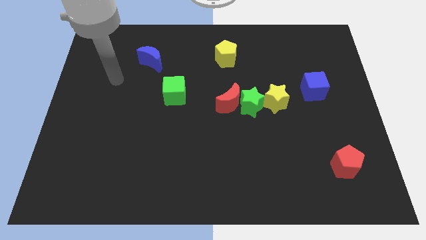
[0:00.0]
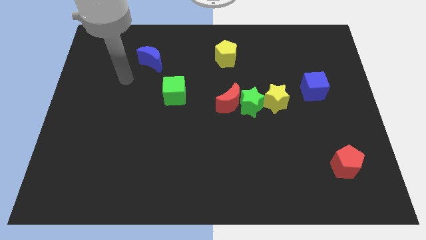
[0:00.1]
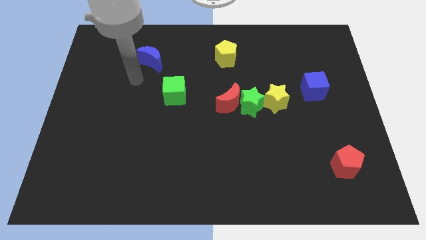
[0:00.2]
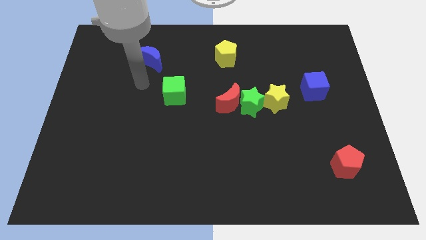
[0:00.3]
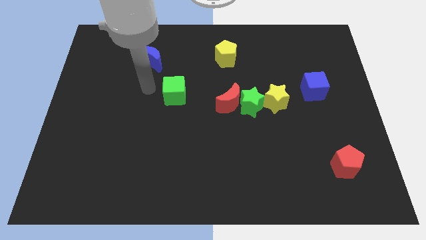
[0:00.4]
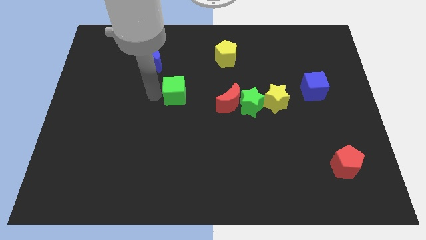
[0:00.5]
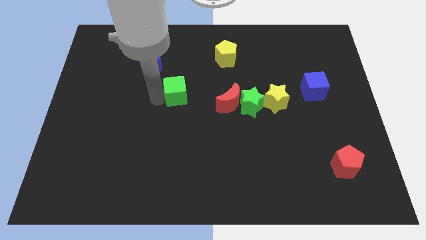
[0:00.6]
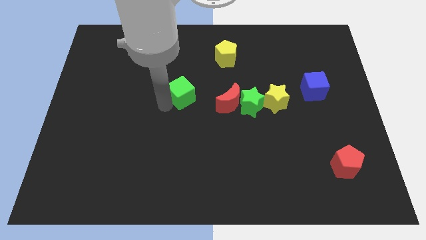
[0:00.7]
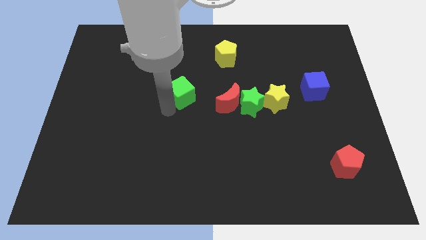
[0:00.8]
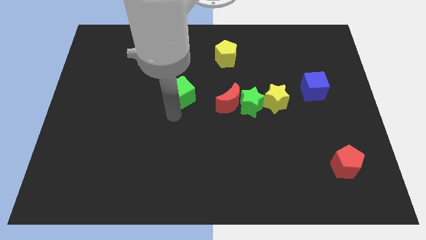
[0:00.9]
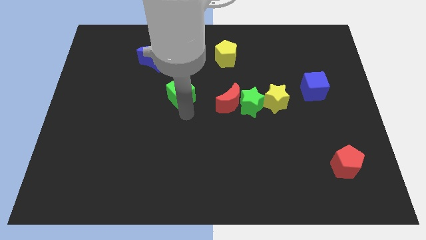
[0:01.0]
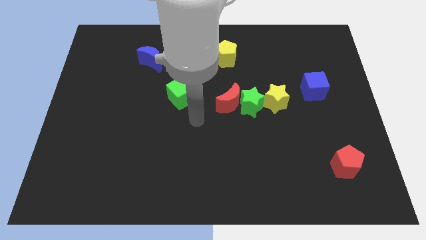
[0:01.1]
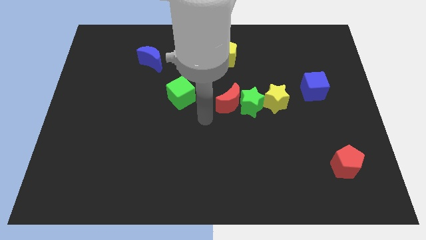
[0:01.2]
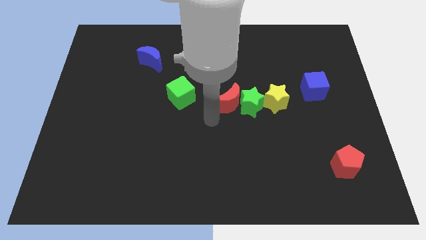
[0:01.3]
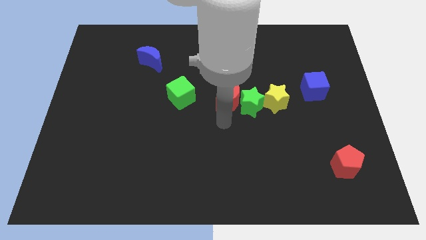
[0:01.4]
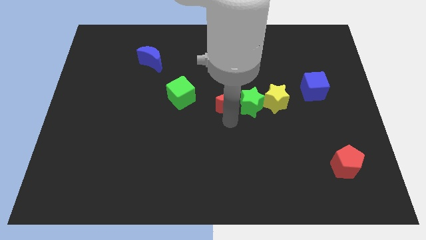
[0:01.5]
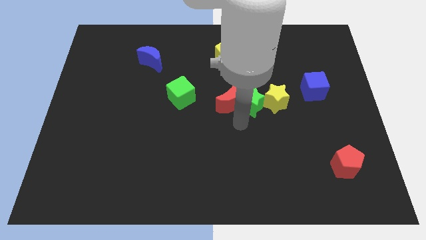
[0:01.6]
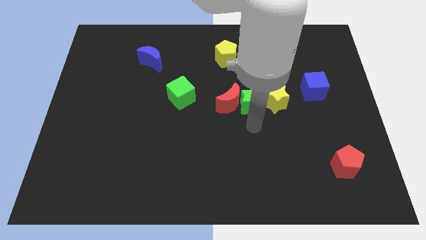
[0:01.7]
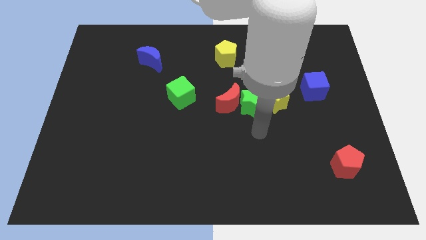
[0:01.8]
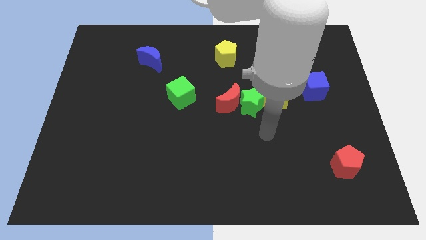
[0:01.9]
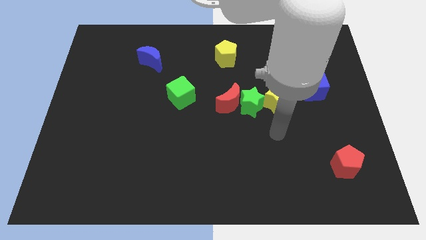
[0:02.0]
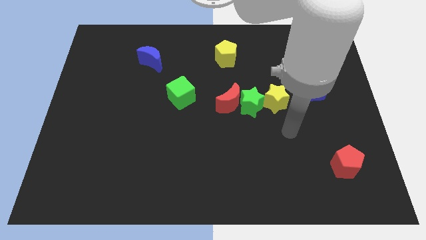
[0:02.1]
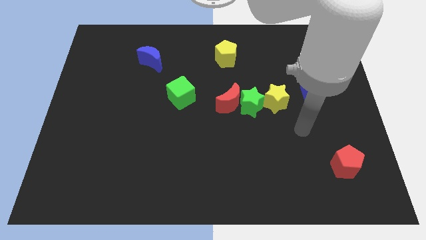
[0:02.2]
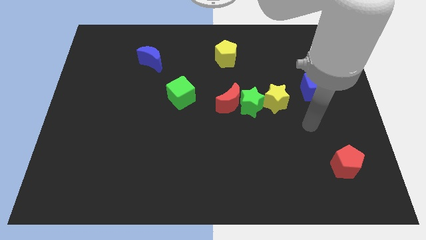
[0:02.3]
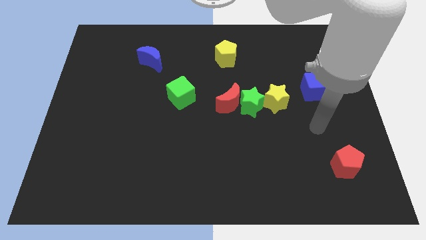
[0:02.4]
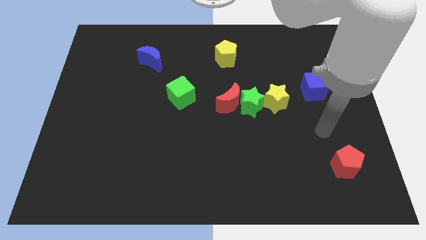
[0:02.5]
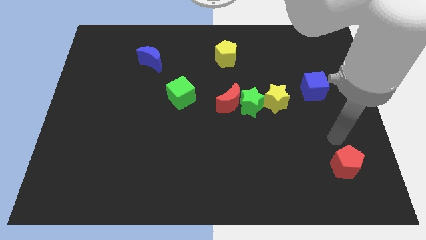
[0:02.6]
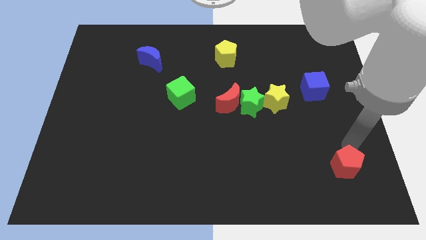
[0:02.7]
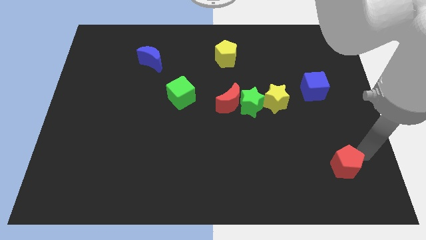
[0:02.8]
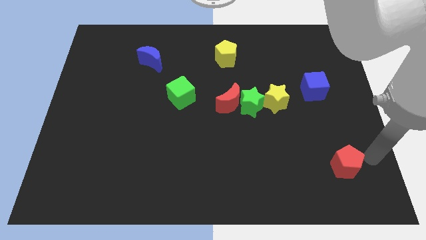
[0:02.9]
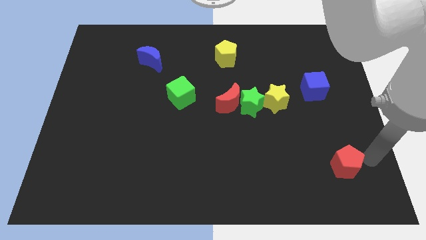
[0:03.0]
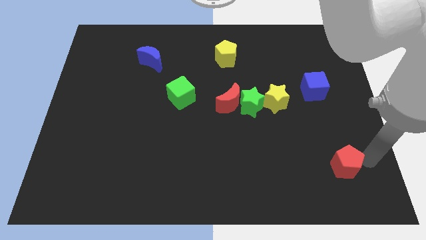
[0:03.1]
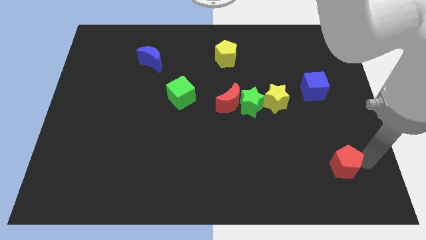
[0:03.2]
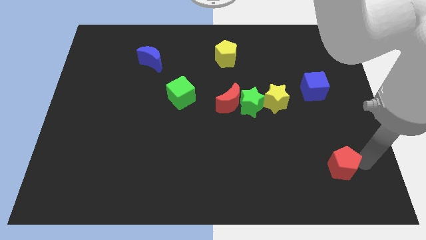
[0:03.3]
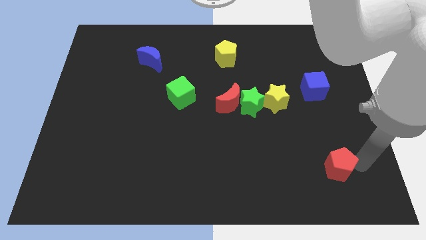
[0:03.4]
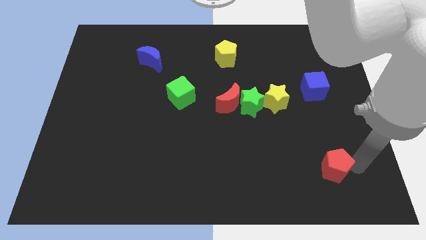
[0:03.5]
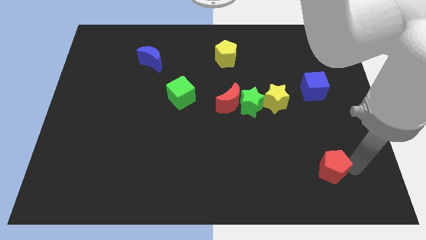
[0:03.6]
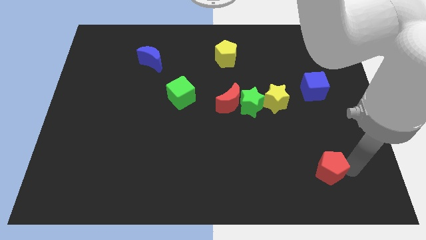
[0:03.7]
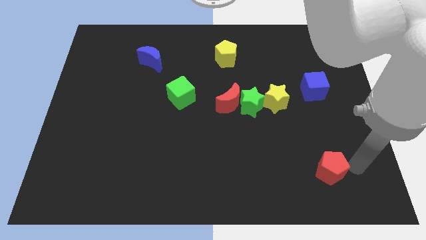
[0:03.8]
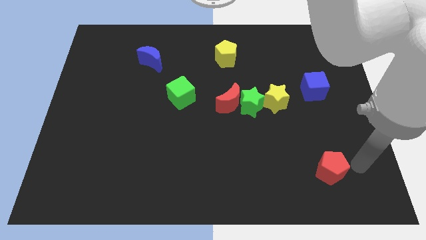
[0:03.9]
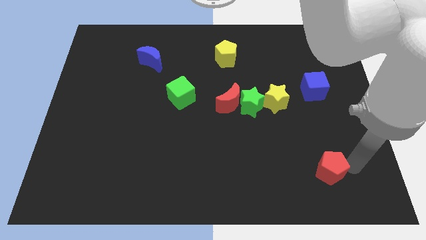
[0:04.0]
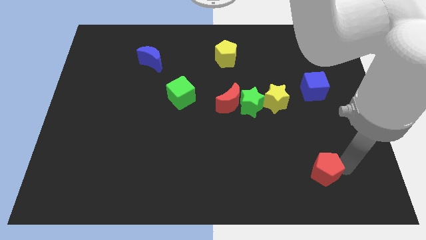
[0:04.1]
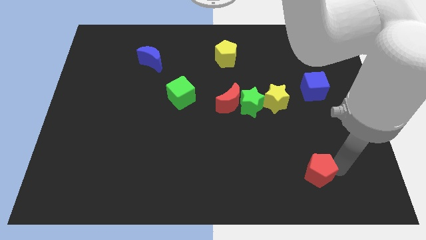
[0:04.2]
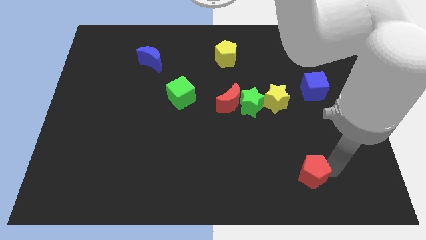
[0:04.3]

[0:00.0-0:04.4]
slightly push the red pentagon to the left

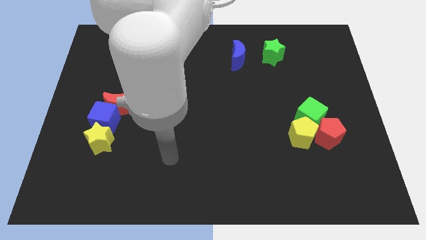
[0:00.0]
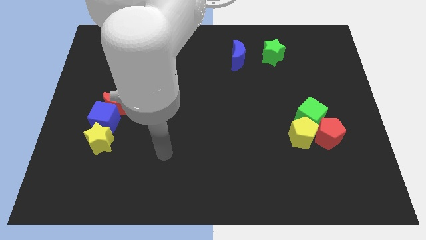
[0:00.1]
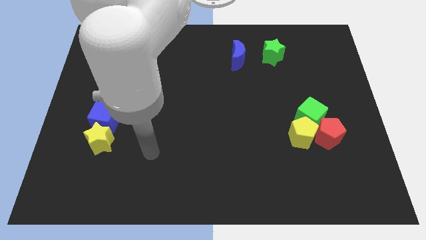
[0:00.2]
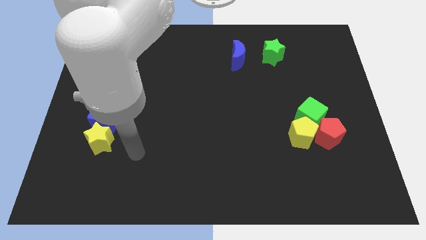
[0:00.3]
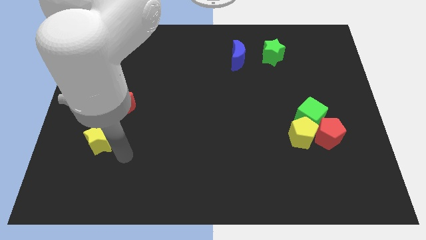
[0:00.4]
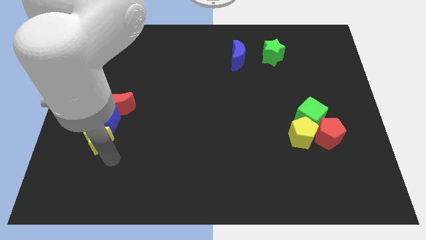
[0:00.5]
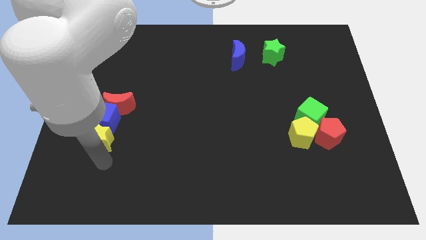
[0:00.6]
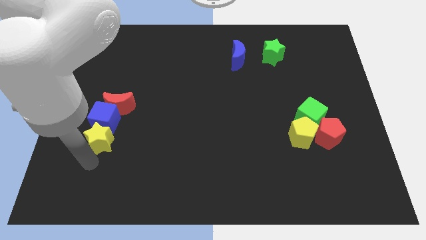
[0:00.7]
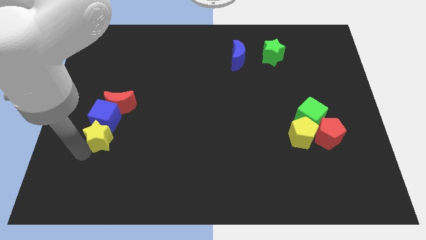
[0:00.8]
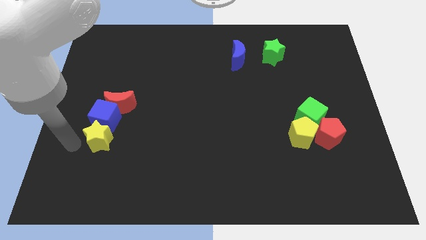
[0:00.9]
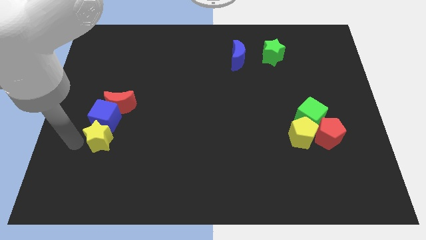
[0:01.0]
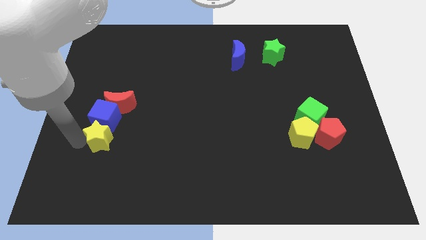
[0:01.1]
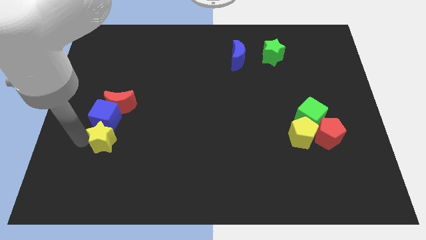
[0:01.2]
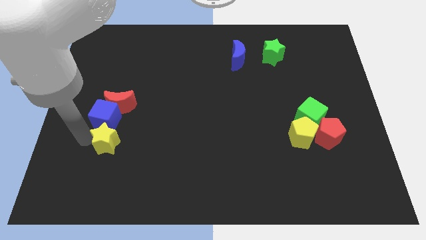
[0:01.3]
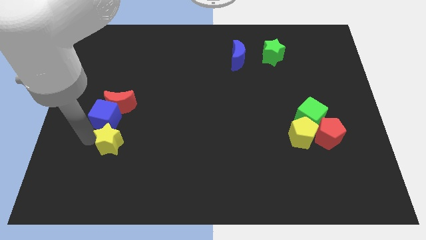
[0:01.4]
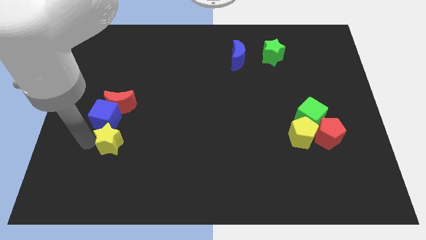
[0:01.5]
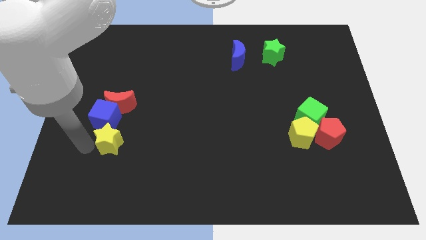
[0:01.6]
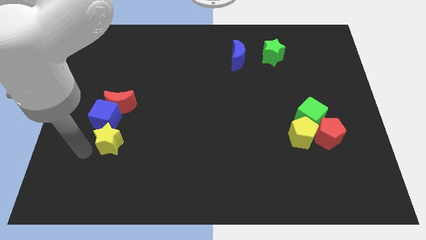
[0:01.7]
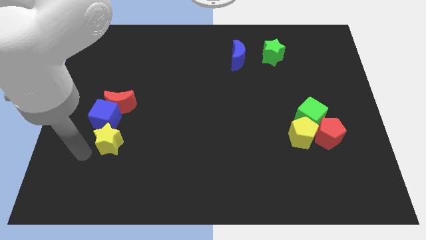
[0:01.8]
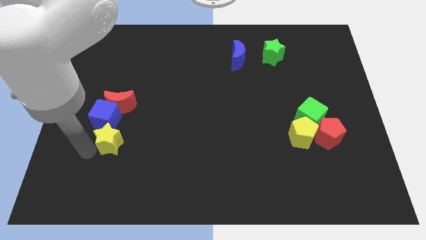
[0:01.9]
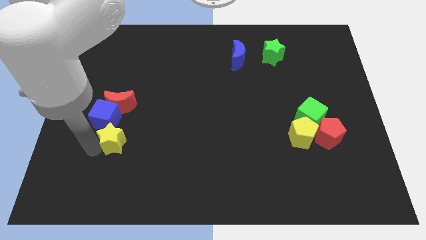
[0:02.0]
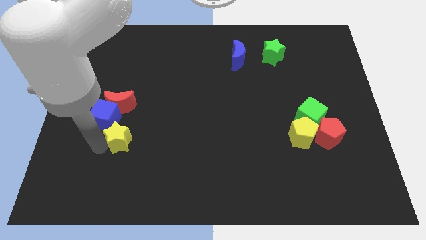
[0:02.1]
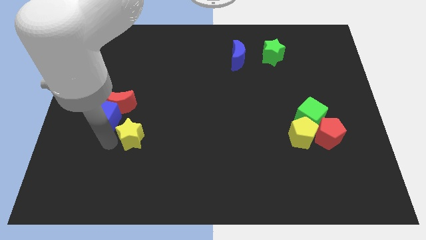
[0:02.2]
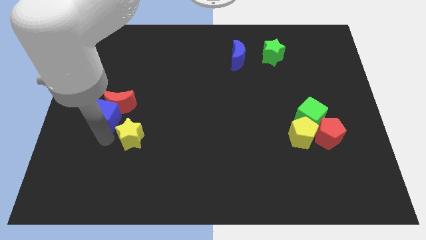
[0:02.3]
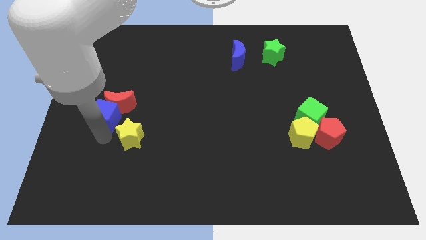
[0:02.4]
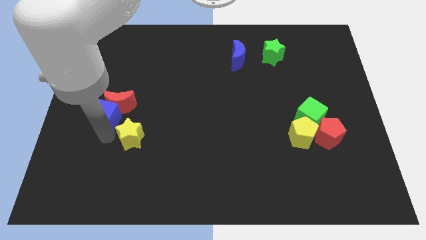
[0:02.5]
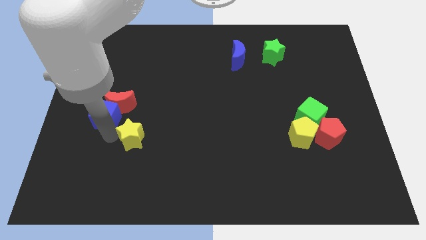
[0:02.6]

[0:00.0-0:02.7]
slide the yellow star a little bit right

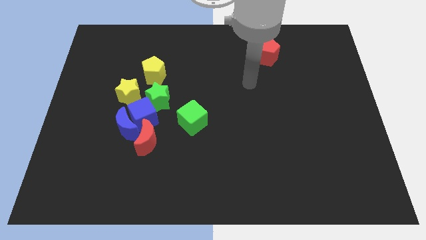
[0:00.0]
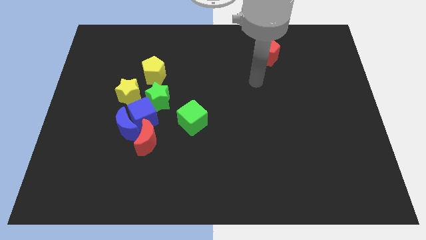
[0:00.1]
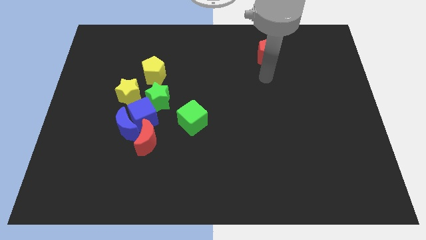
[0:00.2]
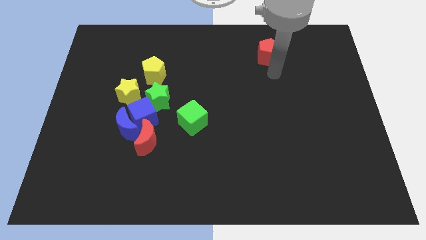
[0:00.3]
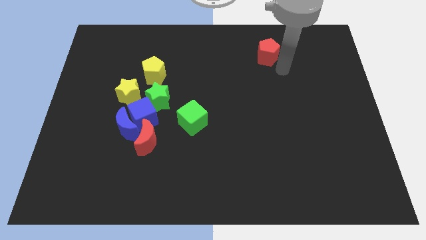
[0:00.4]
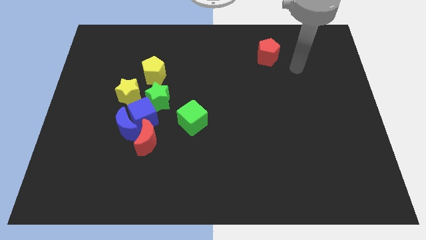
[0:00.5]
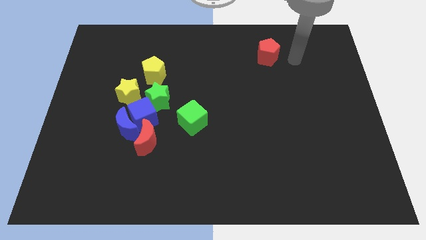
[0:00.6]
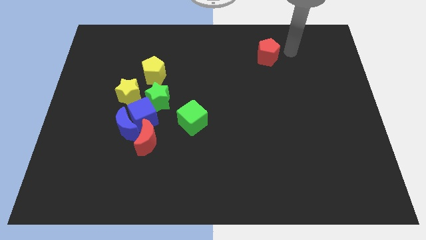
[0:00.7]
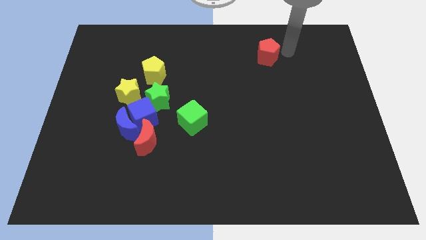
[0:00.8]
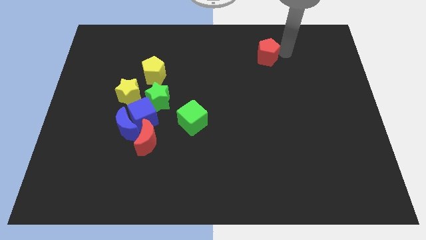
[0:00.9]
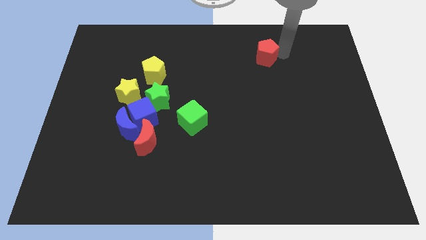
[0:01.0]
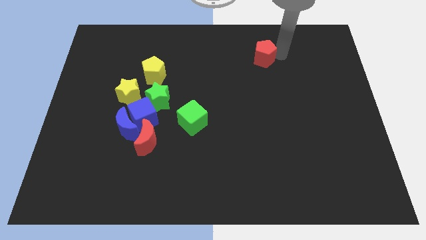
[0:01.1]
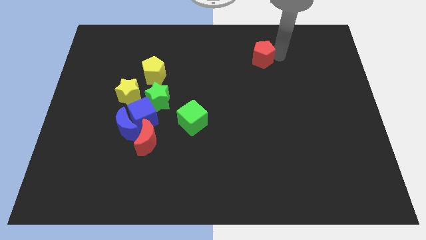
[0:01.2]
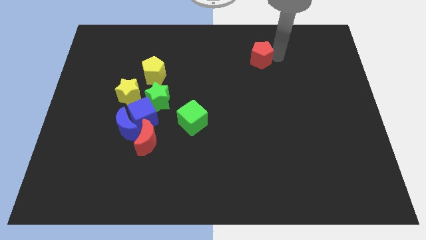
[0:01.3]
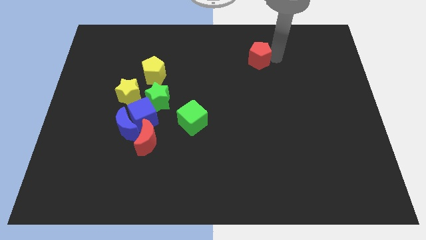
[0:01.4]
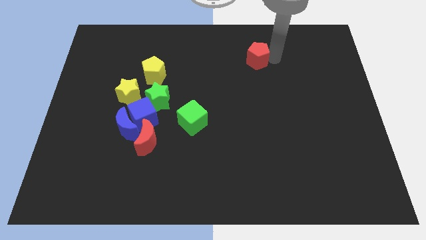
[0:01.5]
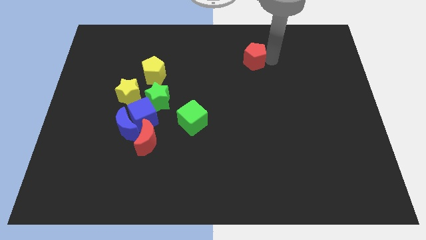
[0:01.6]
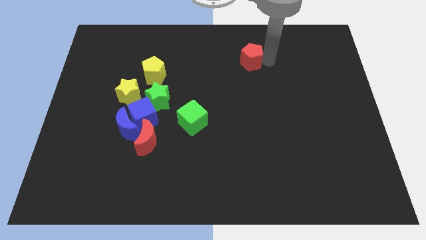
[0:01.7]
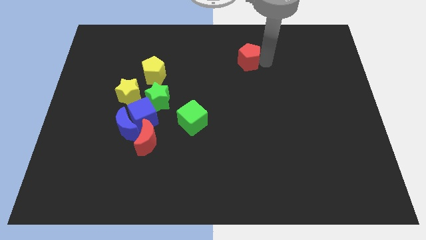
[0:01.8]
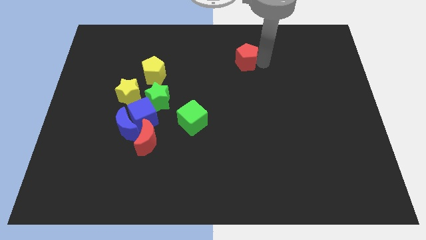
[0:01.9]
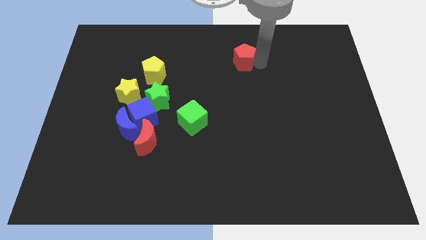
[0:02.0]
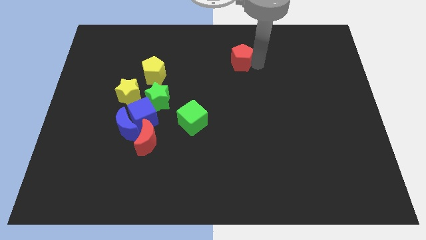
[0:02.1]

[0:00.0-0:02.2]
slightly slide the red pentagon left
